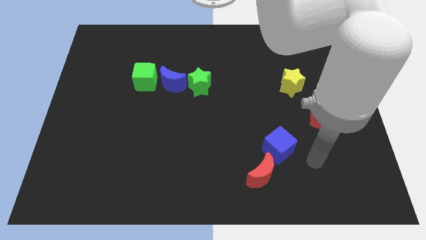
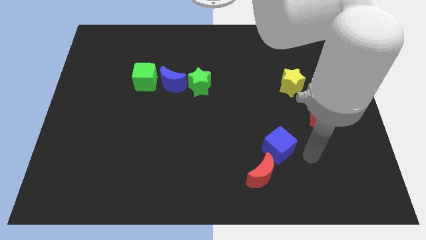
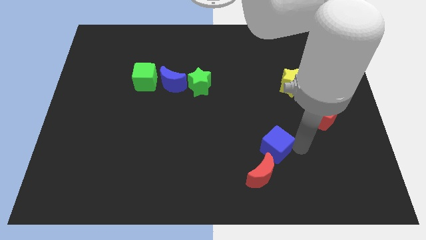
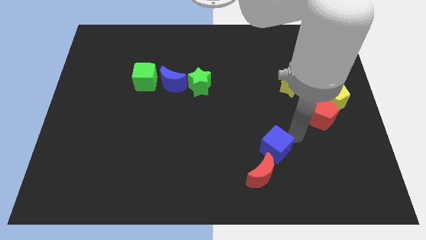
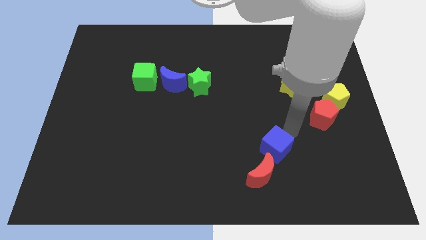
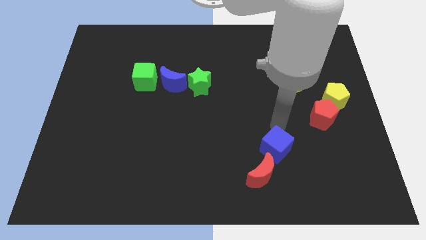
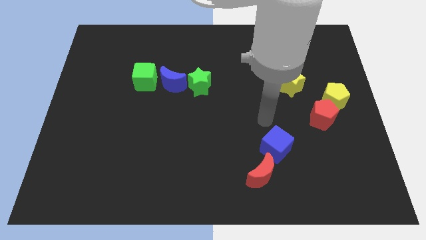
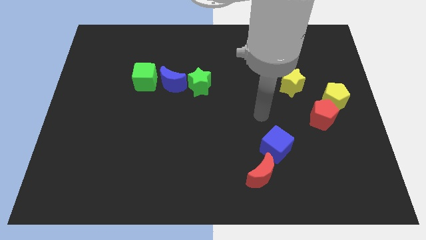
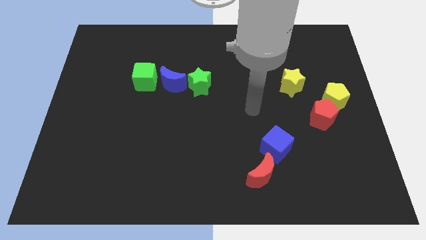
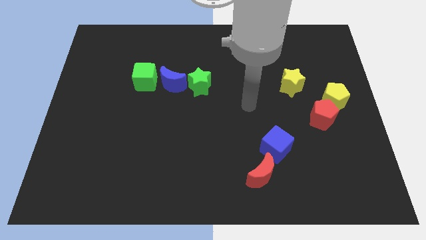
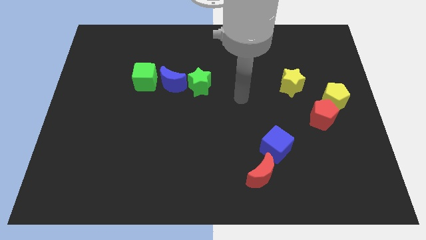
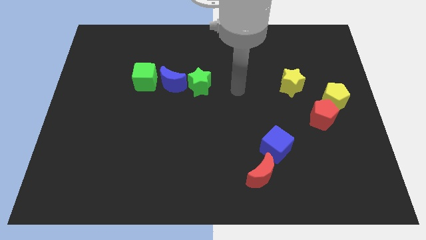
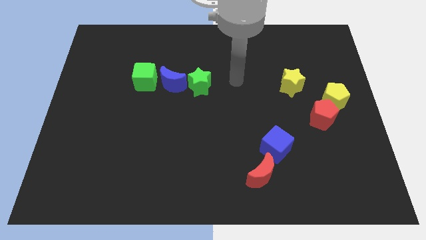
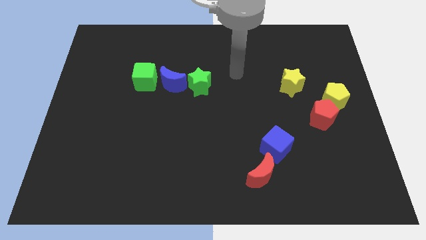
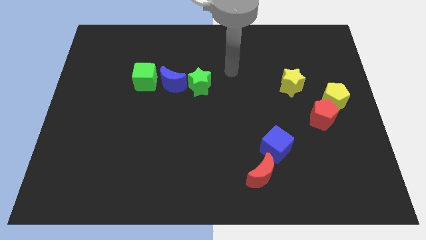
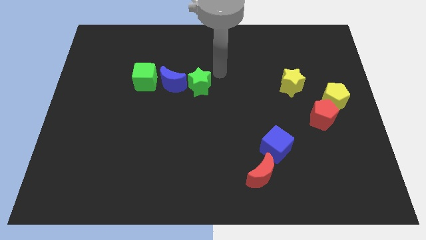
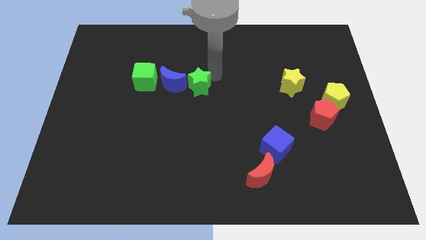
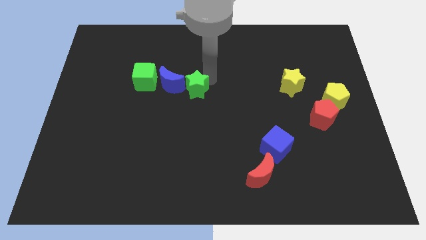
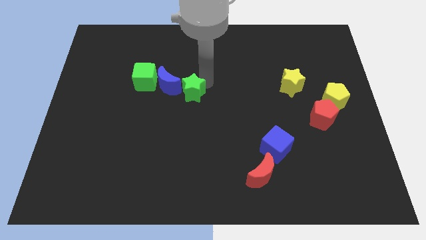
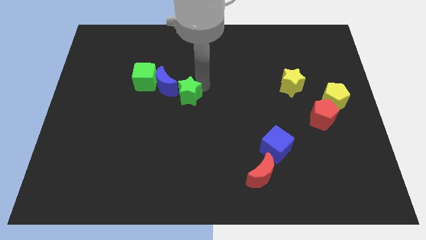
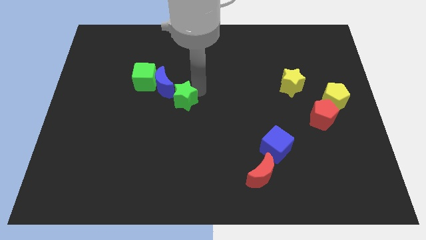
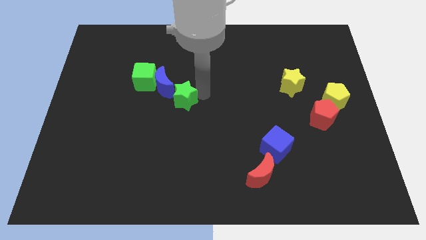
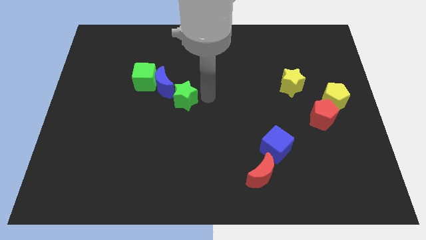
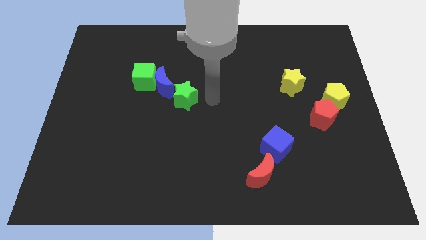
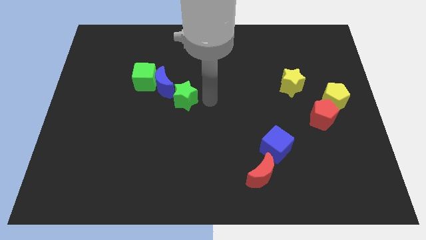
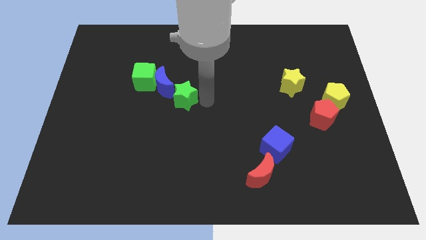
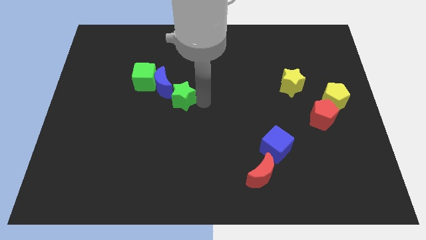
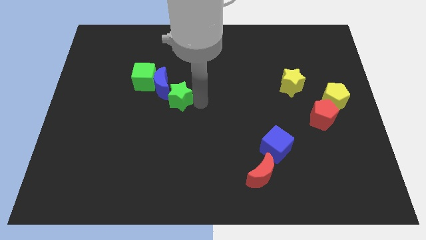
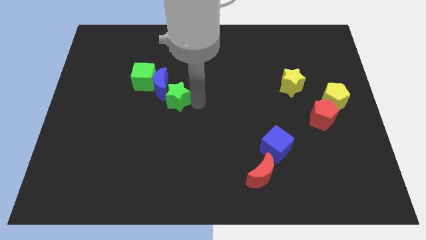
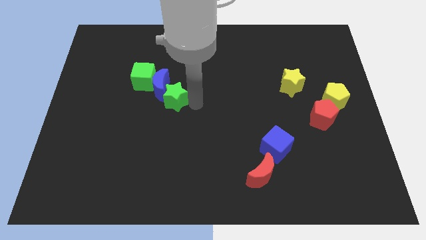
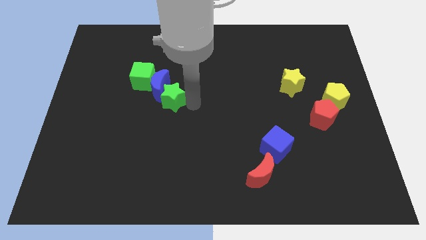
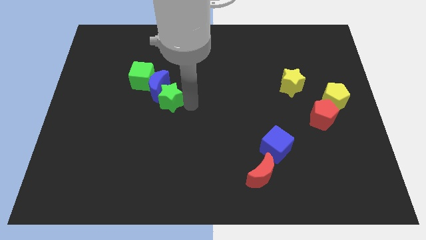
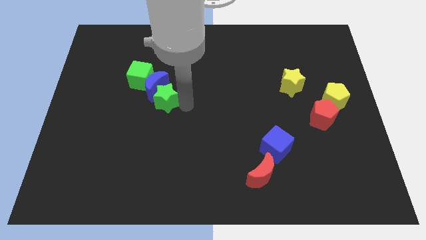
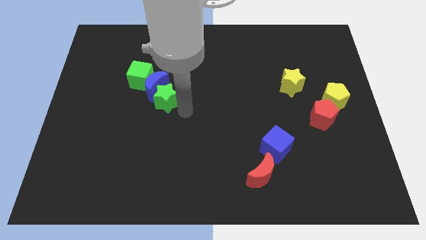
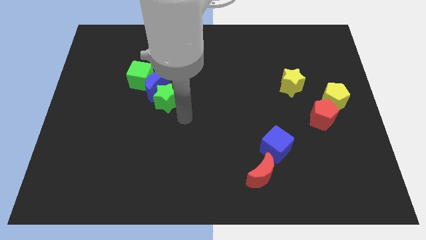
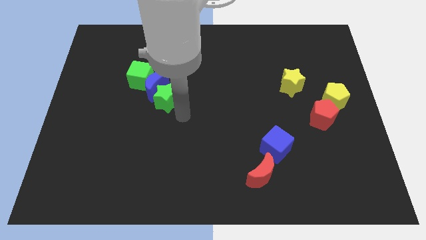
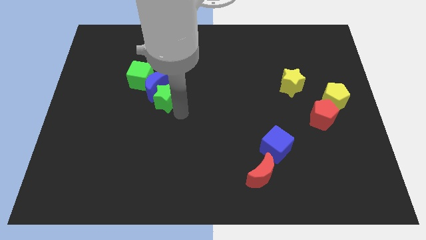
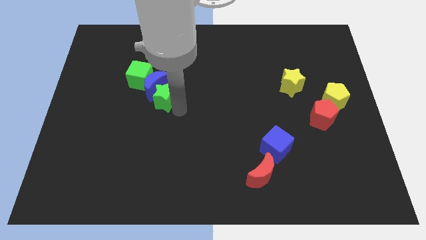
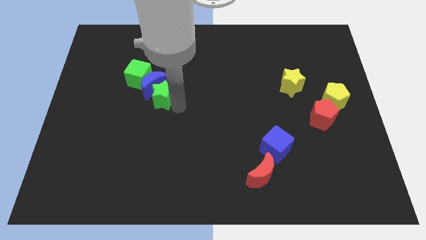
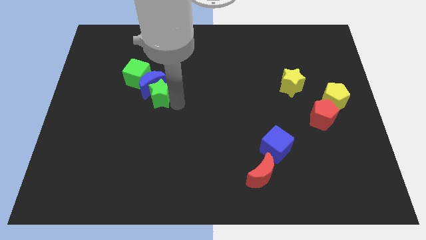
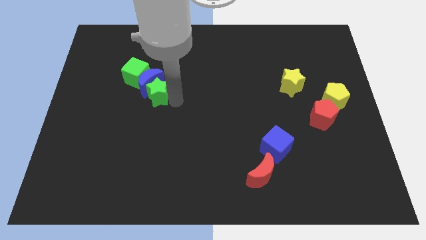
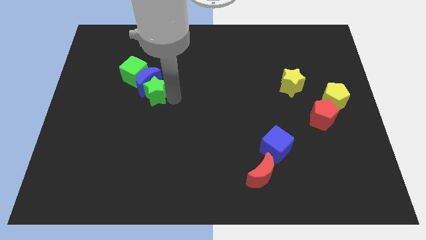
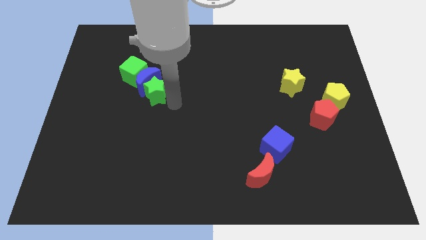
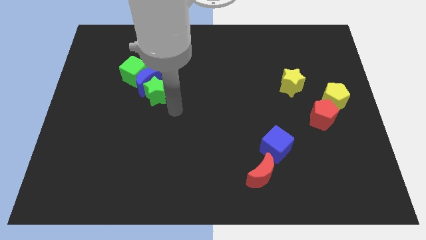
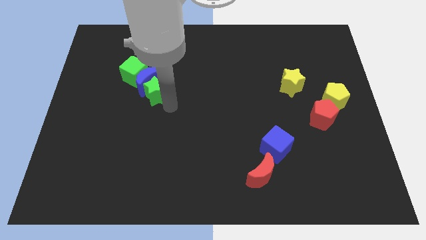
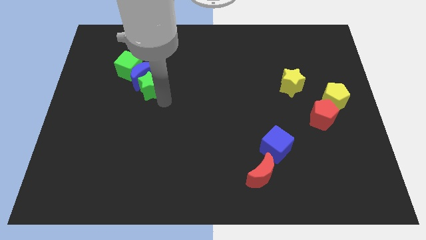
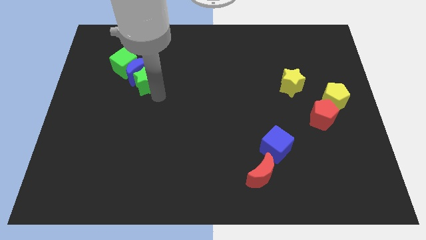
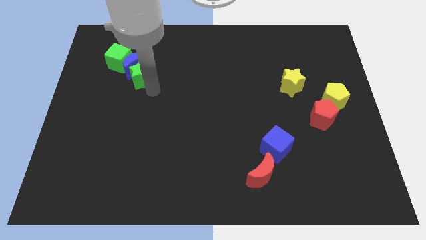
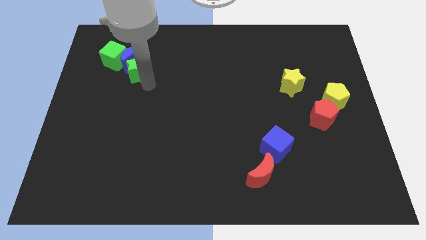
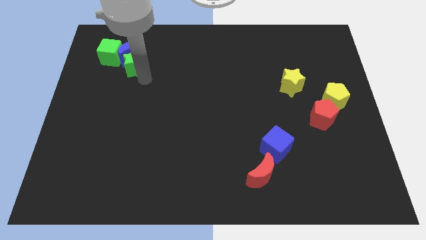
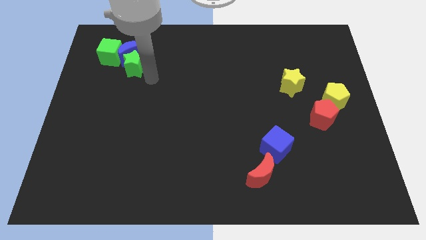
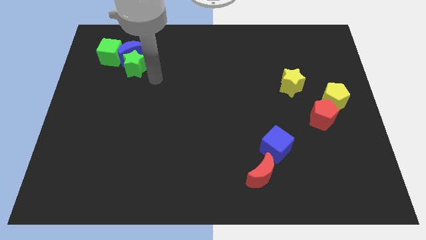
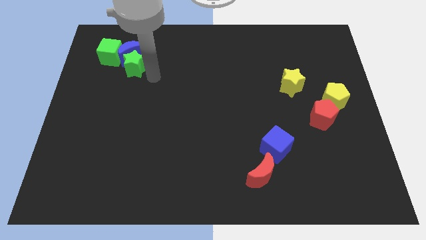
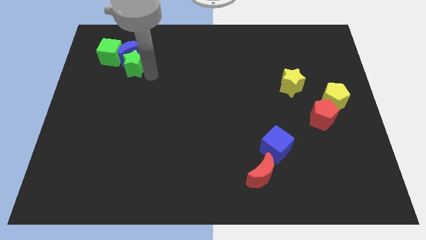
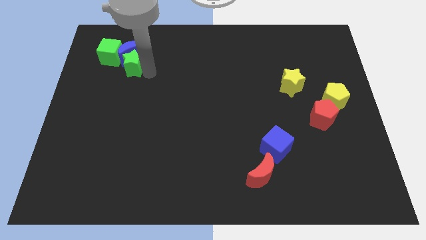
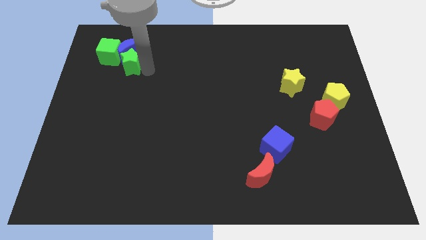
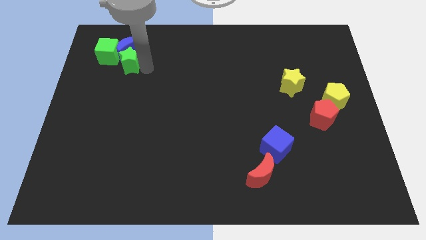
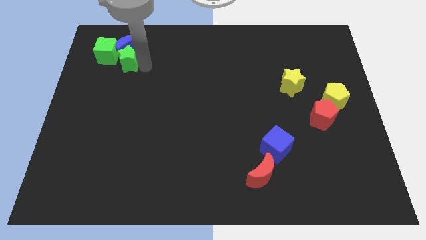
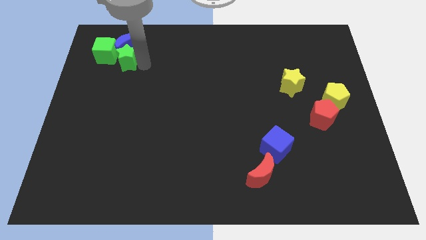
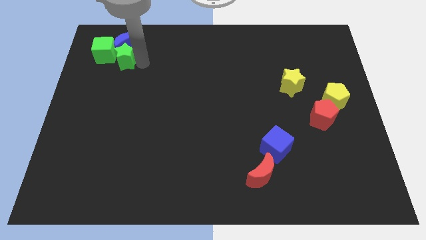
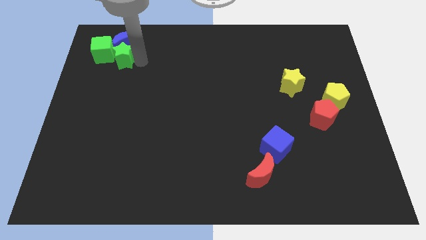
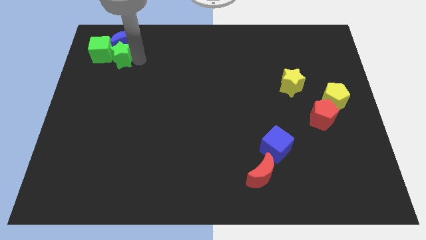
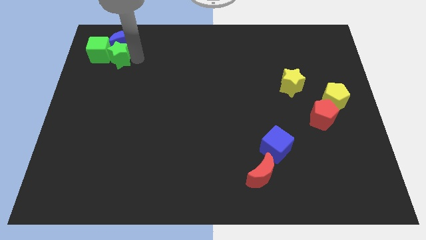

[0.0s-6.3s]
push the green star close to the green cube

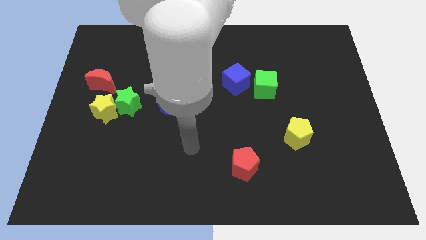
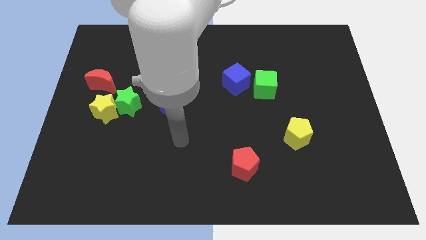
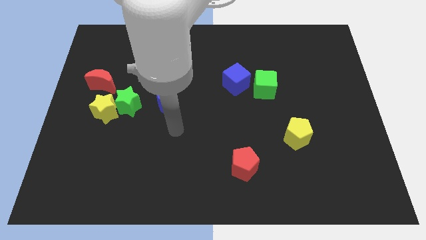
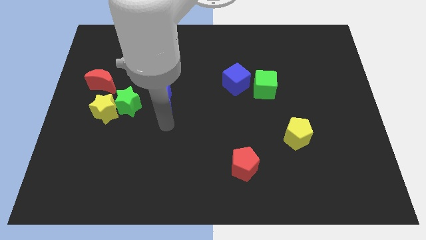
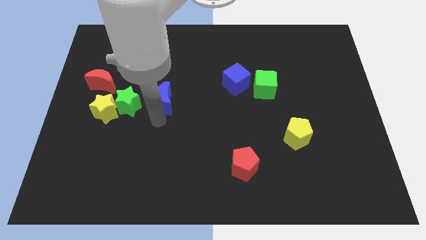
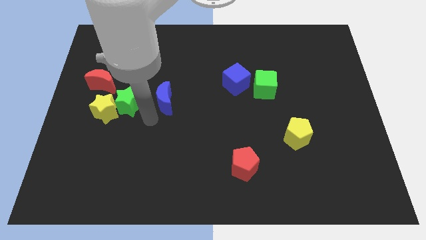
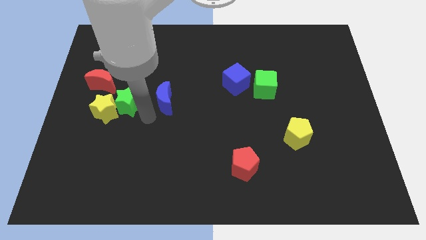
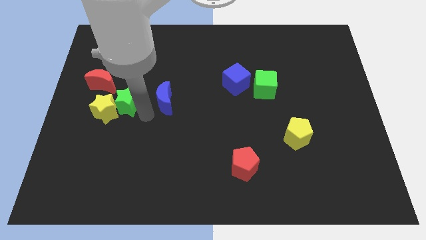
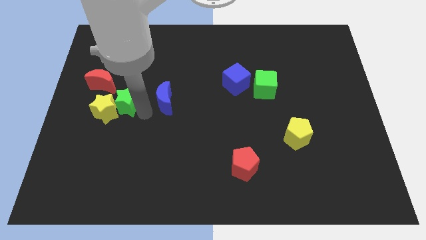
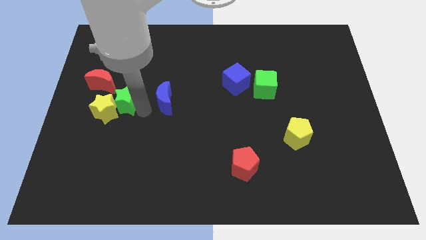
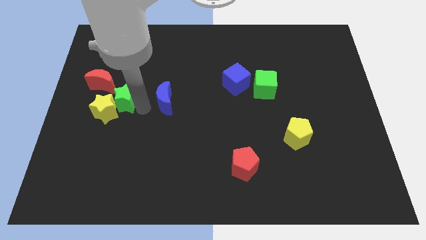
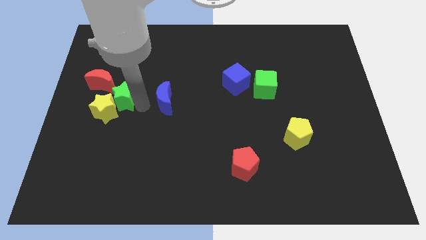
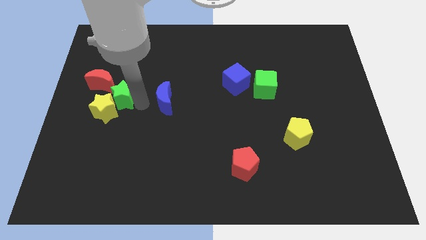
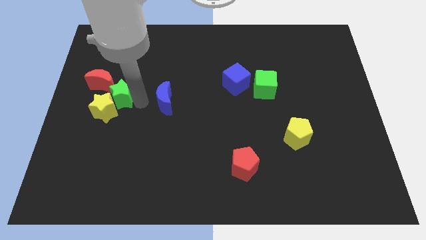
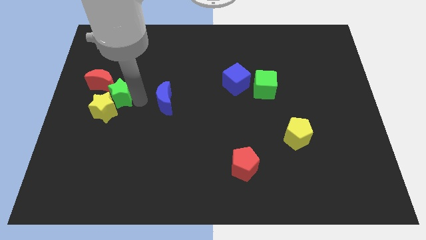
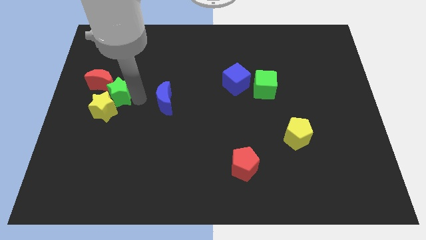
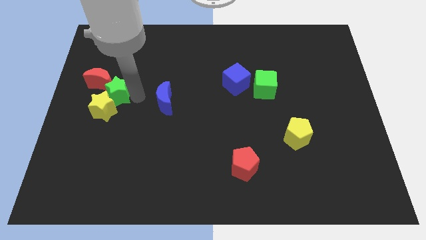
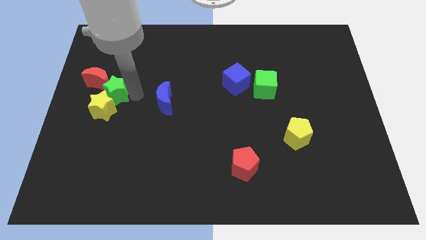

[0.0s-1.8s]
slide the green star close to the red moon
